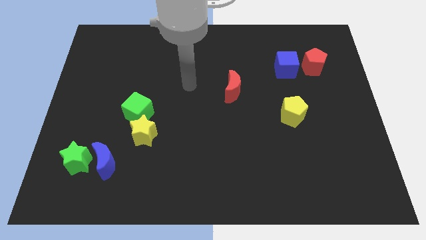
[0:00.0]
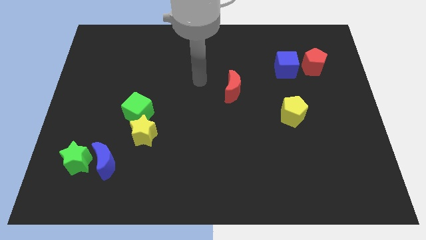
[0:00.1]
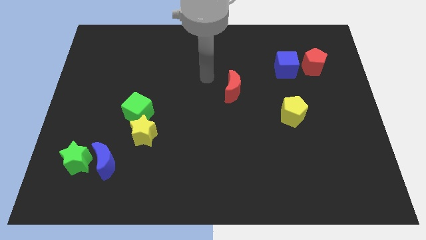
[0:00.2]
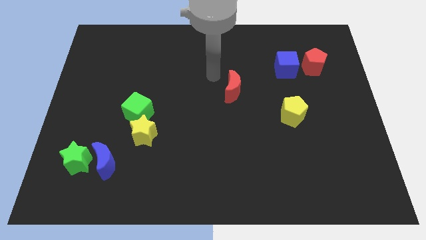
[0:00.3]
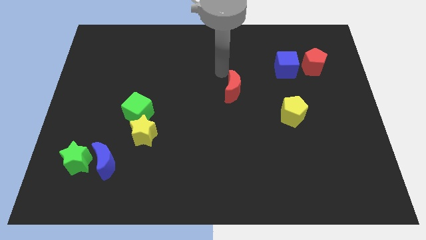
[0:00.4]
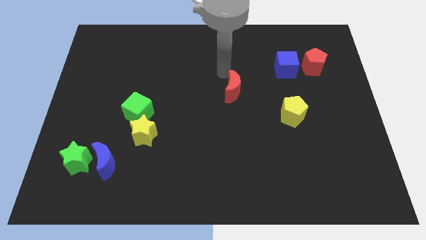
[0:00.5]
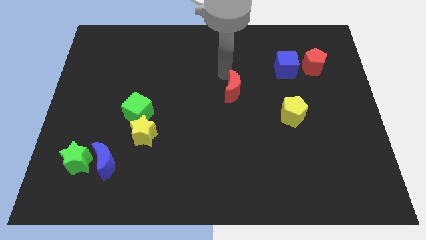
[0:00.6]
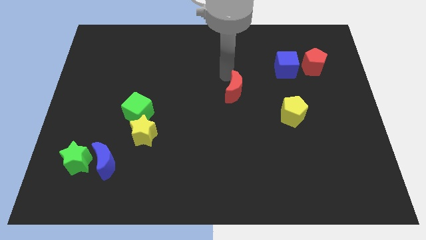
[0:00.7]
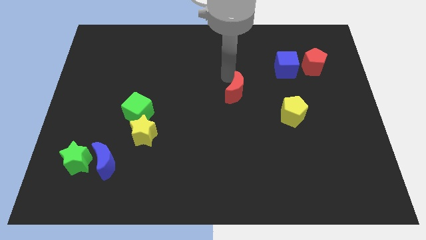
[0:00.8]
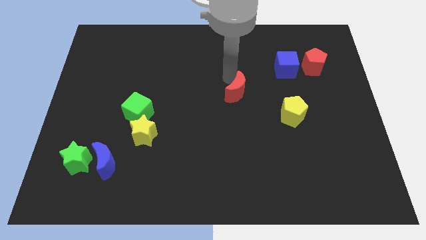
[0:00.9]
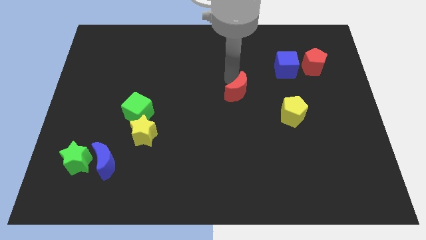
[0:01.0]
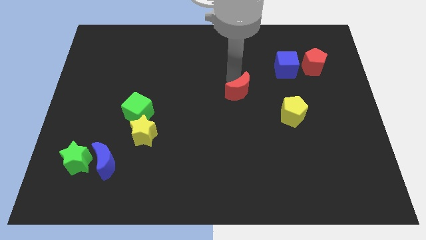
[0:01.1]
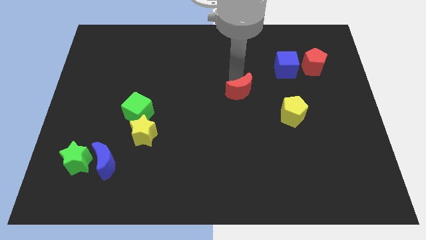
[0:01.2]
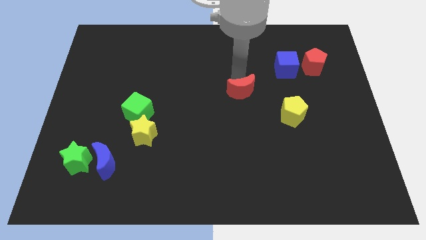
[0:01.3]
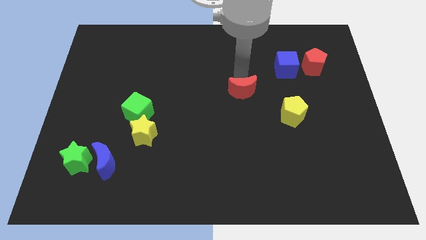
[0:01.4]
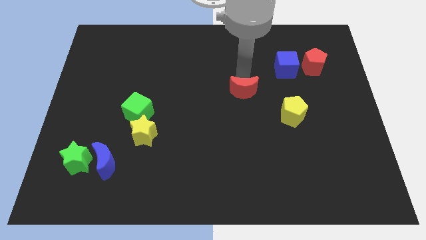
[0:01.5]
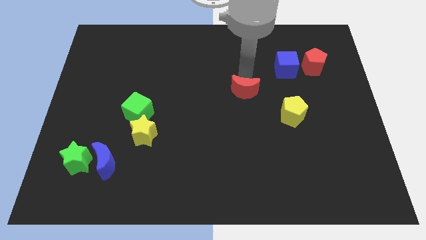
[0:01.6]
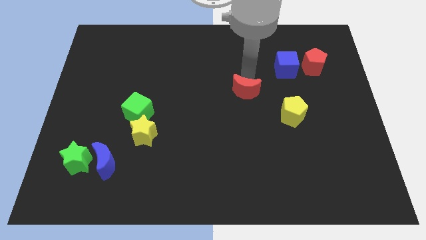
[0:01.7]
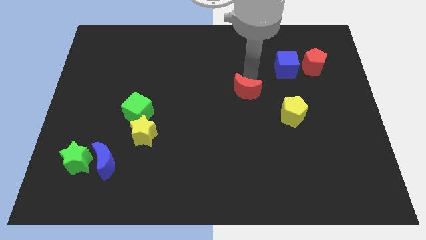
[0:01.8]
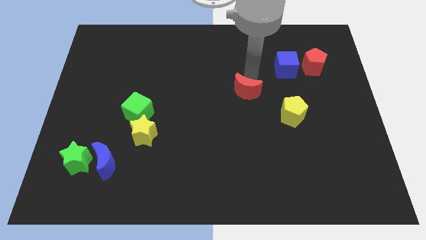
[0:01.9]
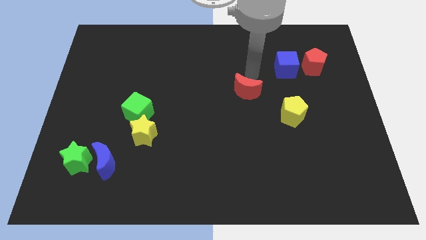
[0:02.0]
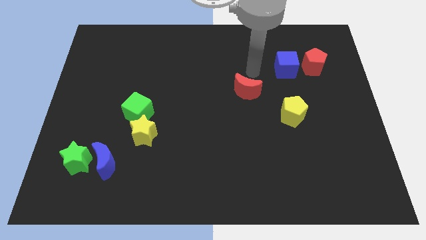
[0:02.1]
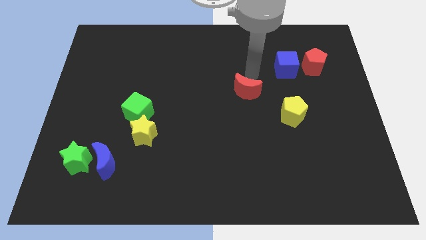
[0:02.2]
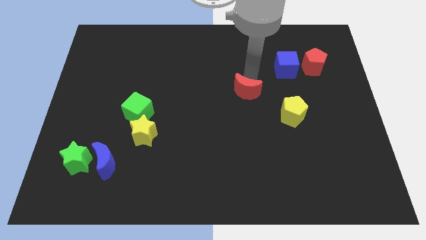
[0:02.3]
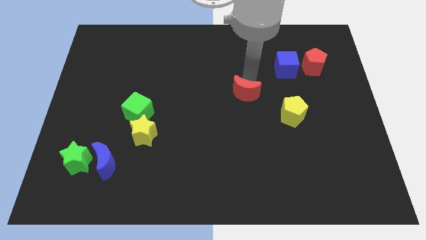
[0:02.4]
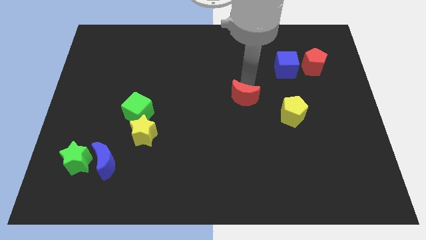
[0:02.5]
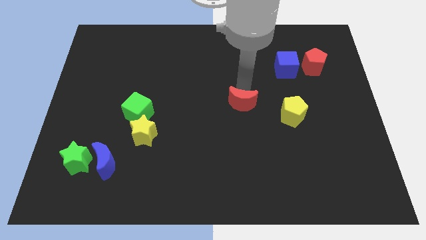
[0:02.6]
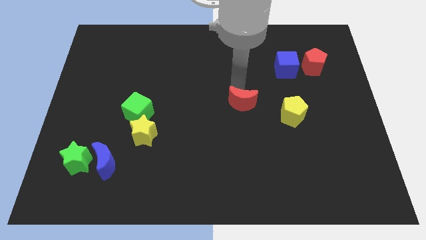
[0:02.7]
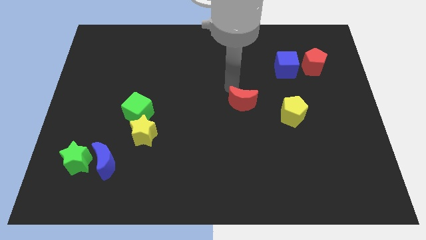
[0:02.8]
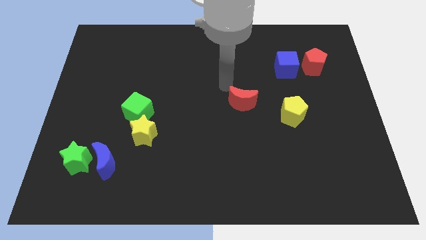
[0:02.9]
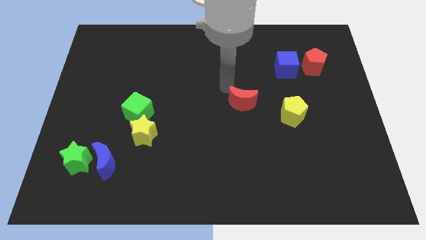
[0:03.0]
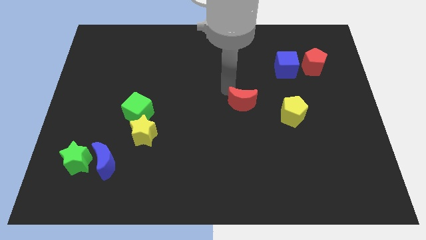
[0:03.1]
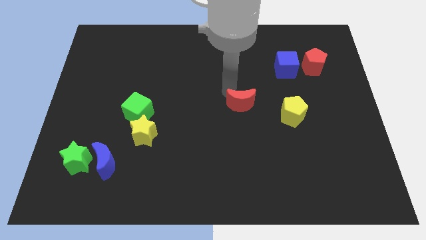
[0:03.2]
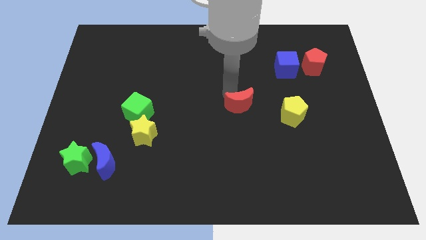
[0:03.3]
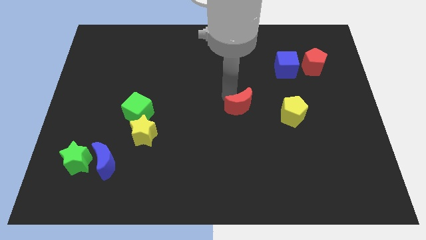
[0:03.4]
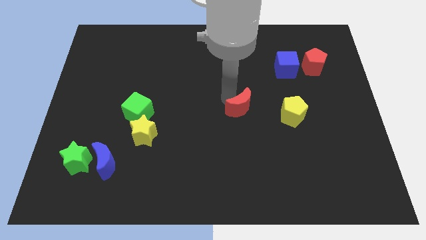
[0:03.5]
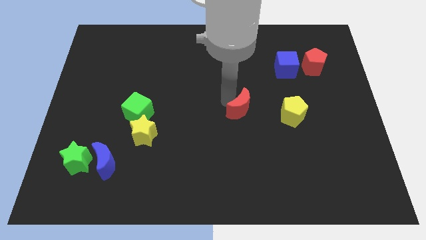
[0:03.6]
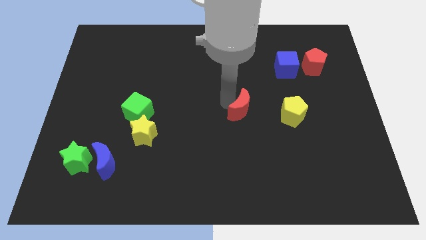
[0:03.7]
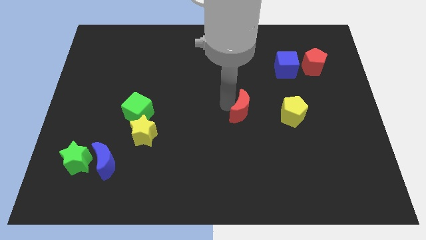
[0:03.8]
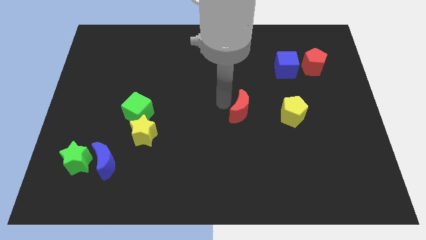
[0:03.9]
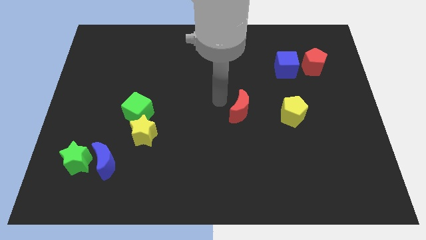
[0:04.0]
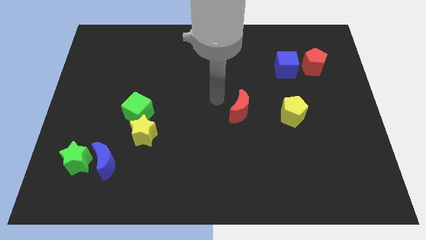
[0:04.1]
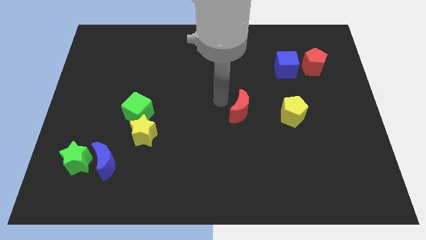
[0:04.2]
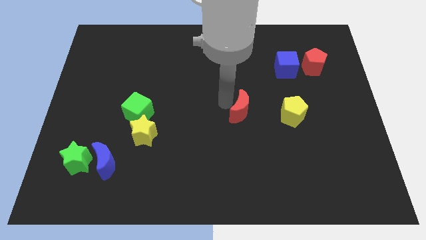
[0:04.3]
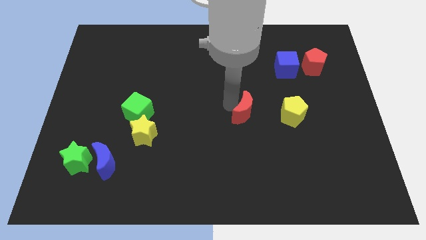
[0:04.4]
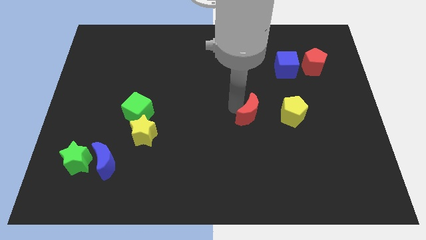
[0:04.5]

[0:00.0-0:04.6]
push the red moon a bit downwards and right

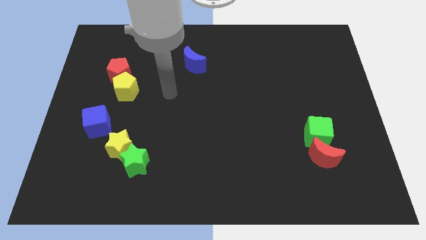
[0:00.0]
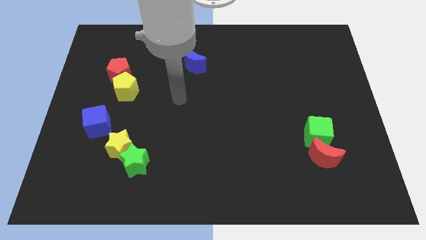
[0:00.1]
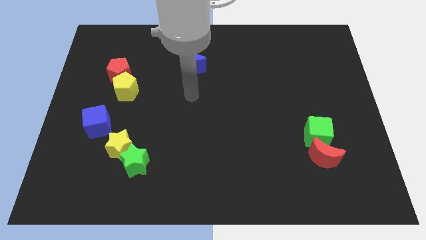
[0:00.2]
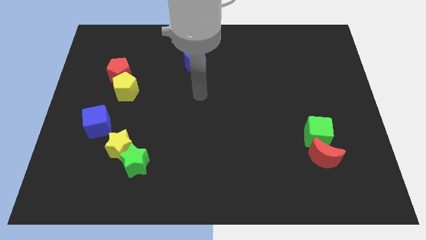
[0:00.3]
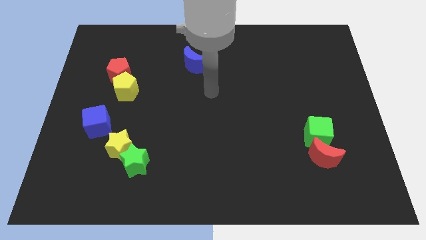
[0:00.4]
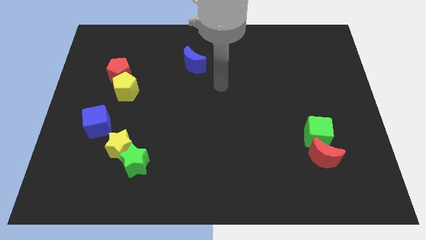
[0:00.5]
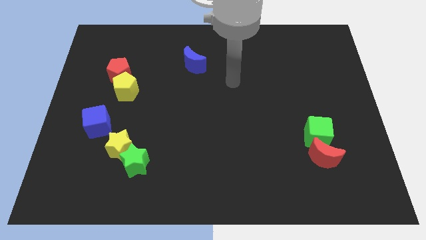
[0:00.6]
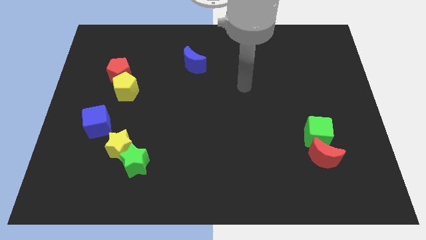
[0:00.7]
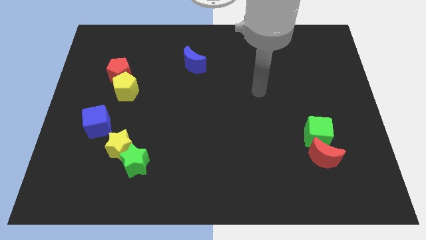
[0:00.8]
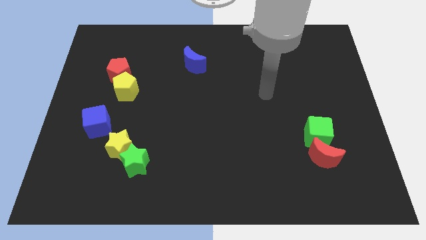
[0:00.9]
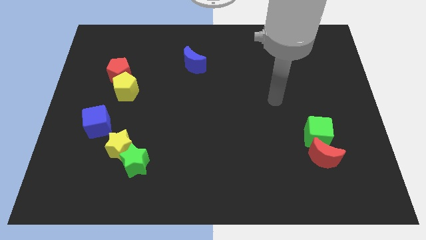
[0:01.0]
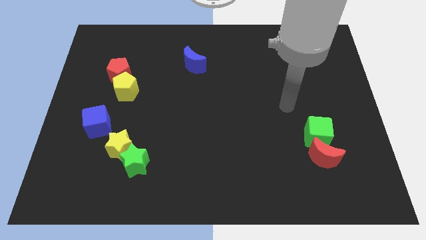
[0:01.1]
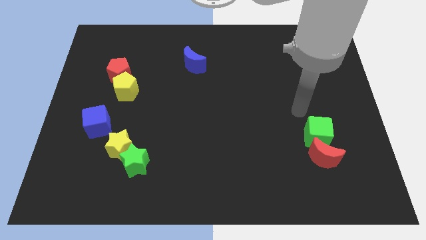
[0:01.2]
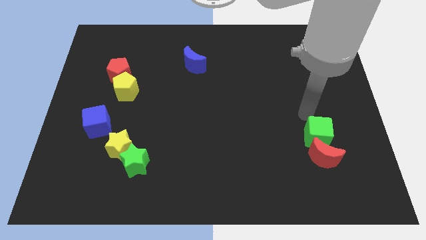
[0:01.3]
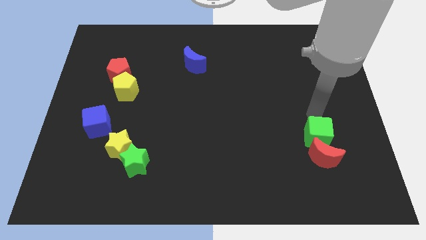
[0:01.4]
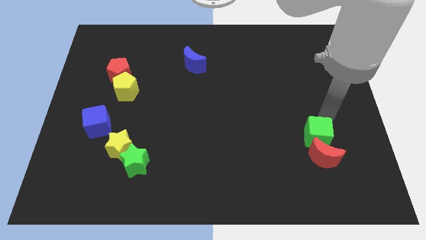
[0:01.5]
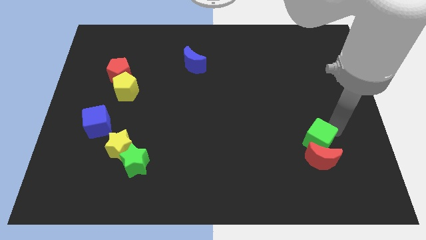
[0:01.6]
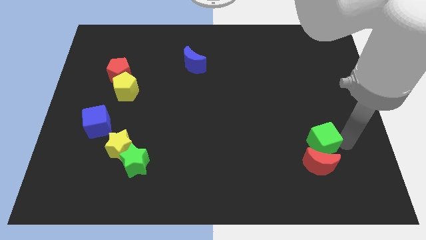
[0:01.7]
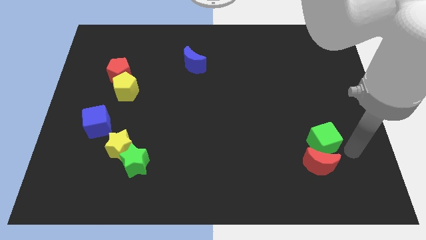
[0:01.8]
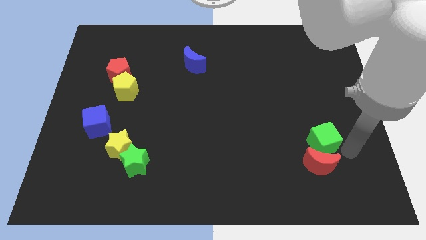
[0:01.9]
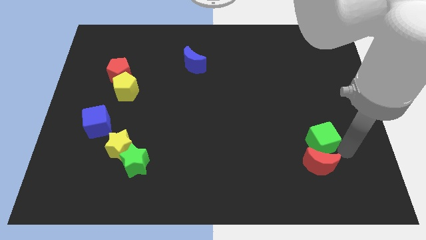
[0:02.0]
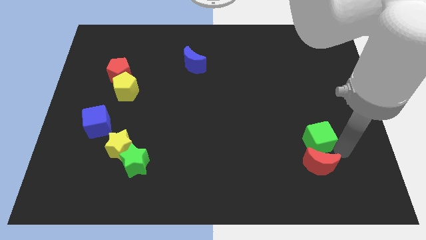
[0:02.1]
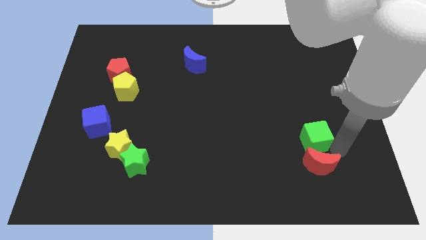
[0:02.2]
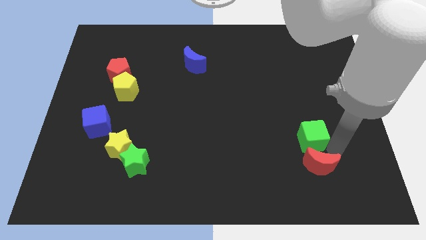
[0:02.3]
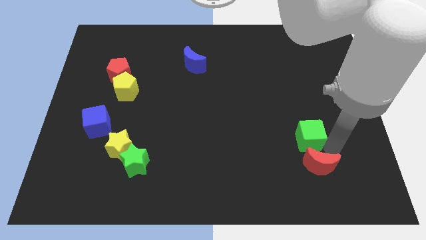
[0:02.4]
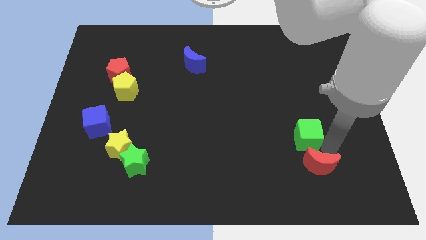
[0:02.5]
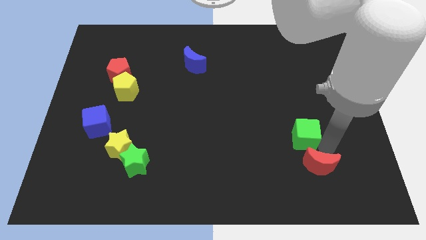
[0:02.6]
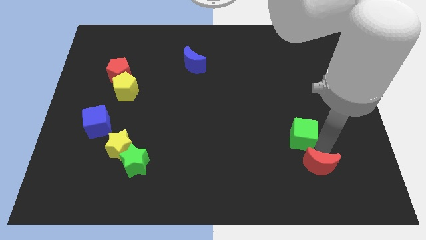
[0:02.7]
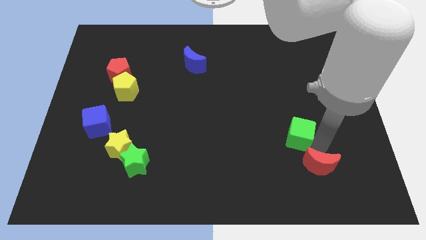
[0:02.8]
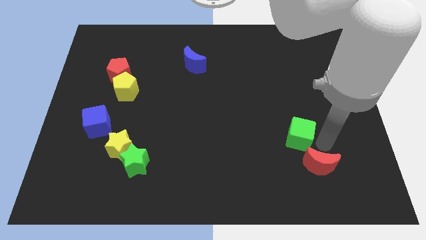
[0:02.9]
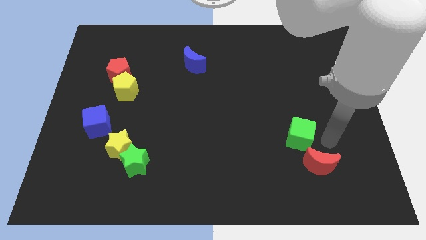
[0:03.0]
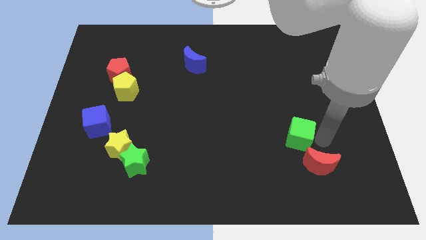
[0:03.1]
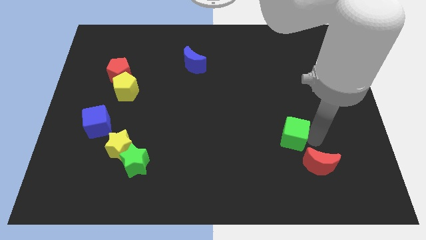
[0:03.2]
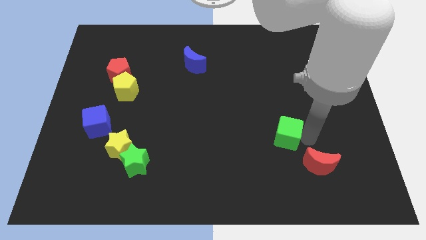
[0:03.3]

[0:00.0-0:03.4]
move the green cube a bit left

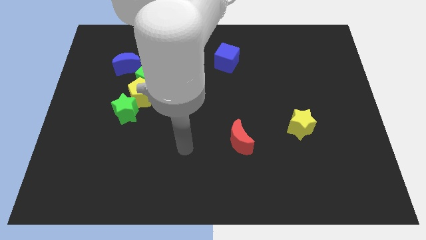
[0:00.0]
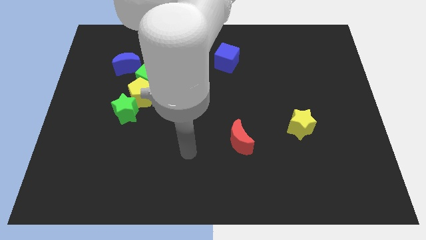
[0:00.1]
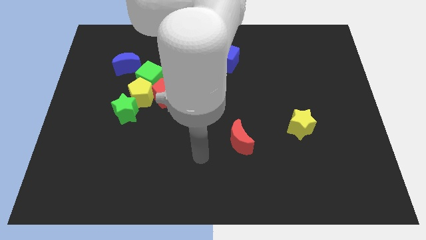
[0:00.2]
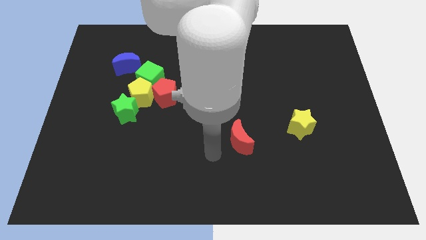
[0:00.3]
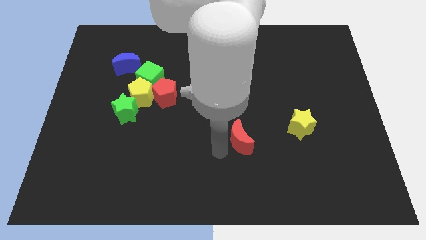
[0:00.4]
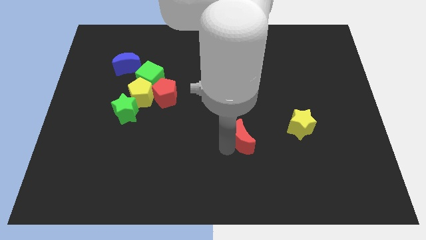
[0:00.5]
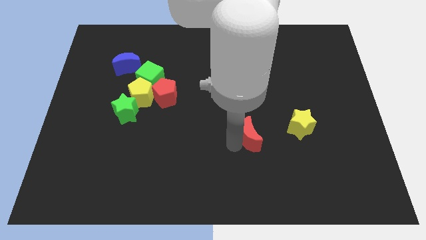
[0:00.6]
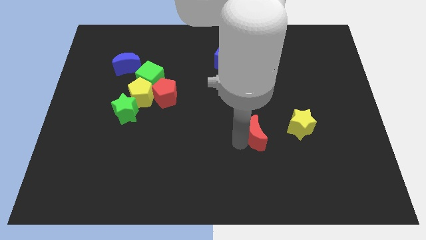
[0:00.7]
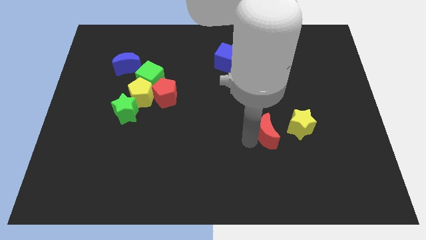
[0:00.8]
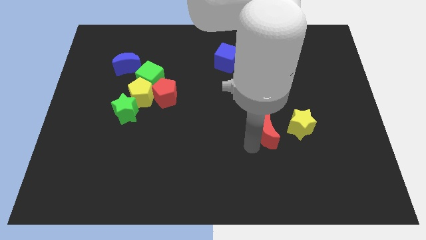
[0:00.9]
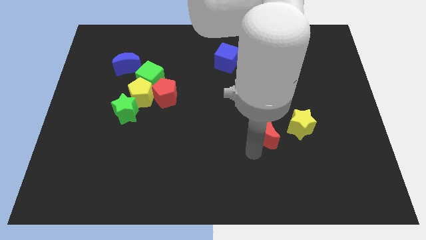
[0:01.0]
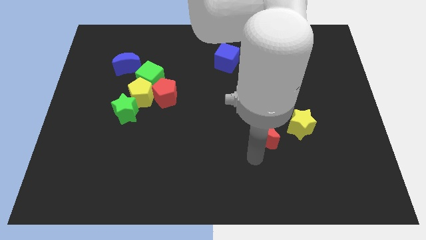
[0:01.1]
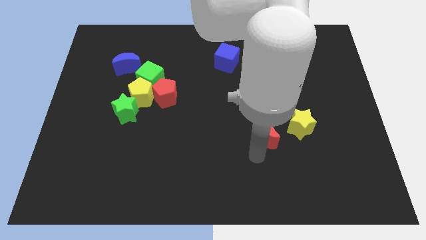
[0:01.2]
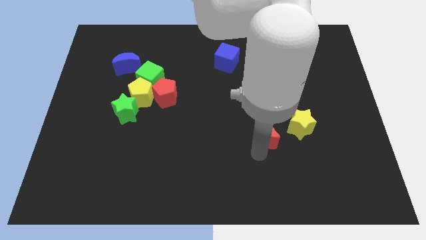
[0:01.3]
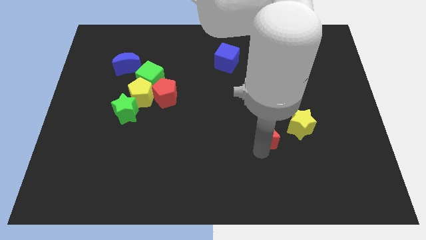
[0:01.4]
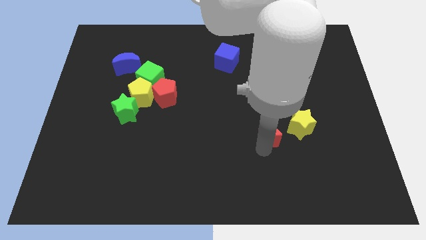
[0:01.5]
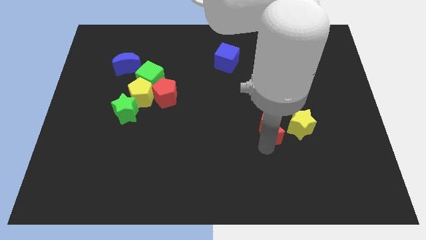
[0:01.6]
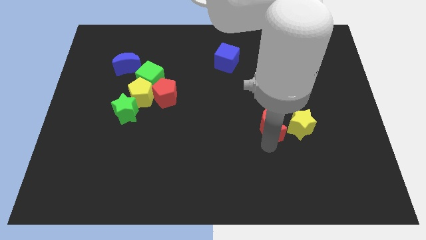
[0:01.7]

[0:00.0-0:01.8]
move the red moon somewhat diagonally upwards and to the right
